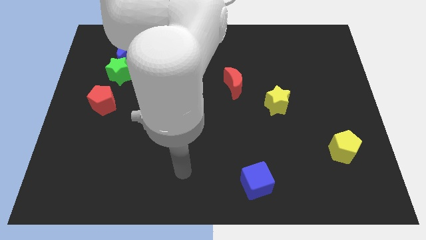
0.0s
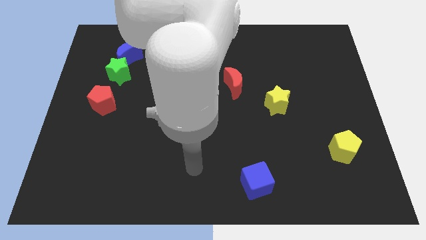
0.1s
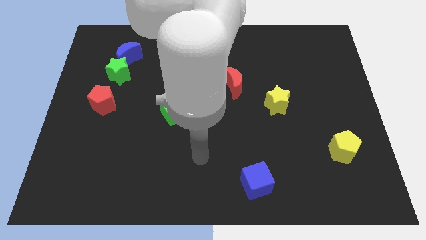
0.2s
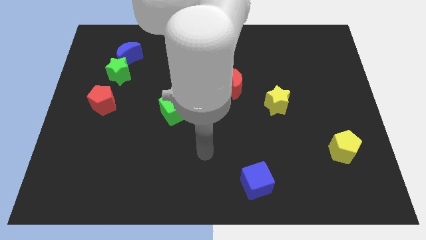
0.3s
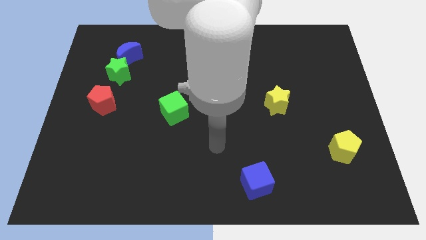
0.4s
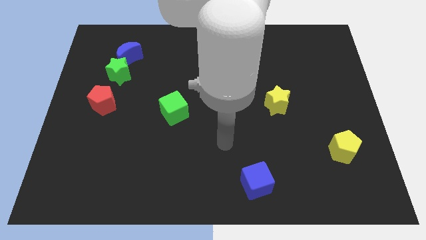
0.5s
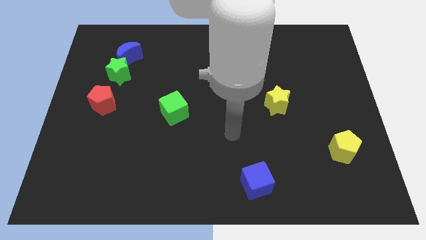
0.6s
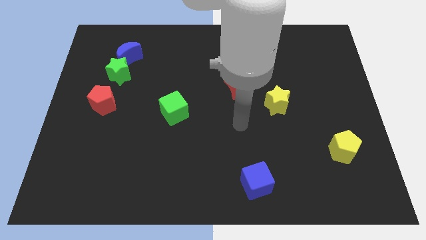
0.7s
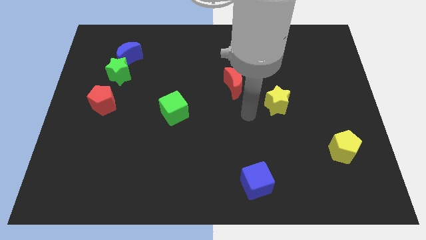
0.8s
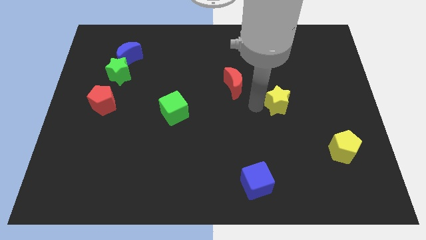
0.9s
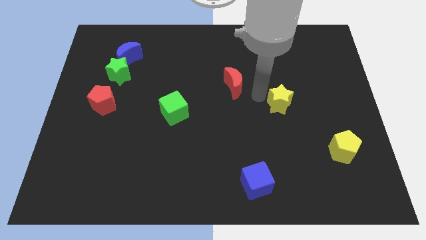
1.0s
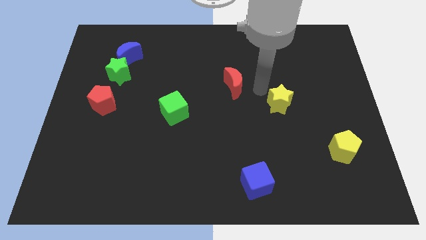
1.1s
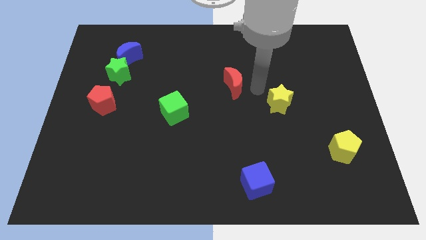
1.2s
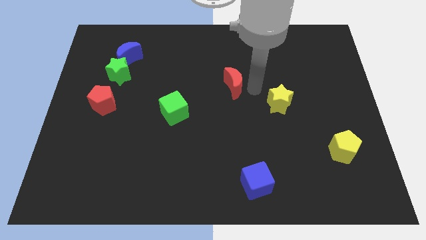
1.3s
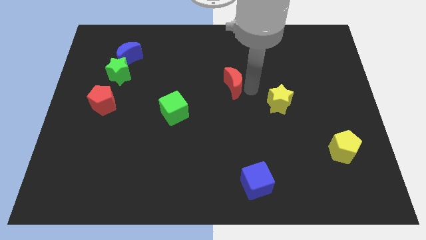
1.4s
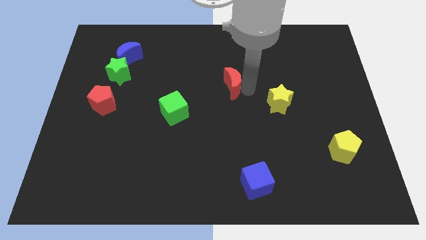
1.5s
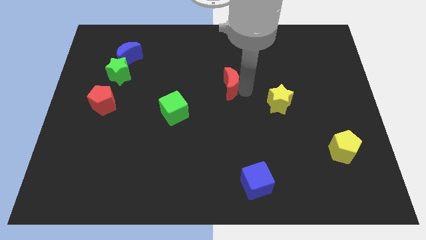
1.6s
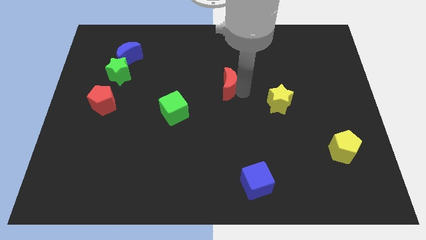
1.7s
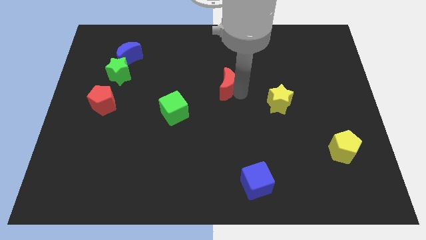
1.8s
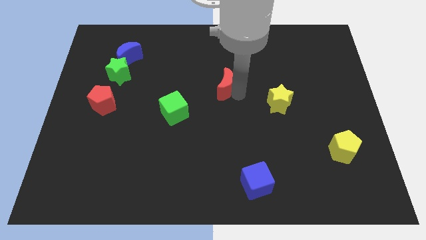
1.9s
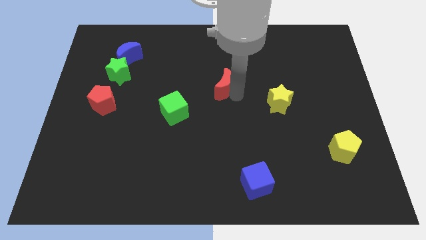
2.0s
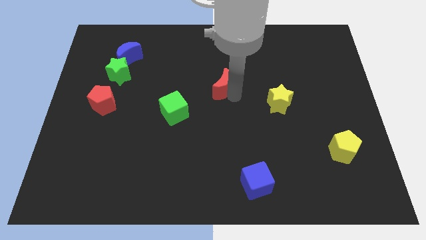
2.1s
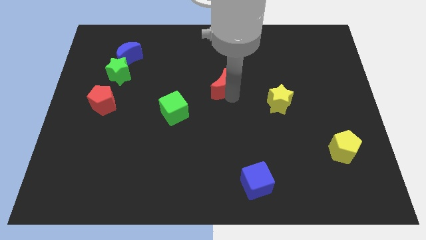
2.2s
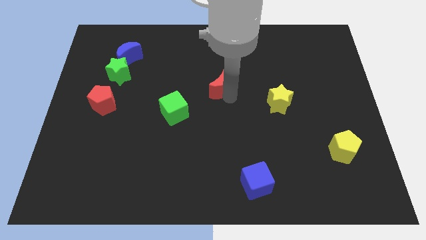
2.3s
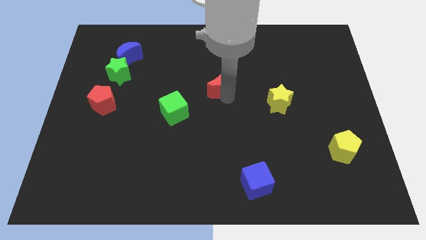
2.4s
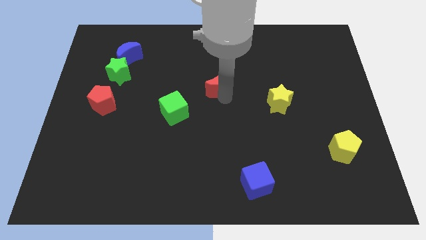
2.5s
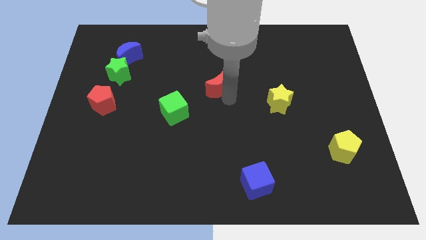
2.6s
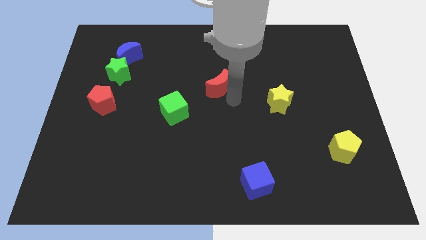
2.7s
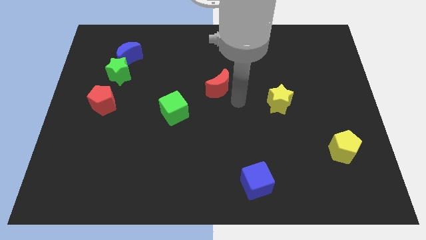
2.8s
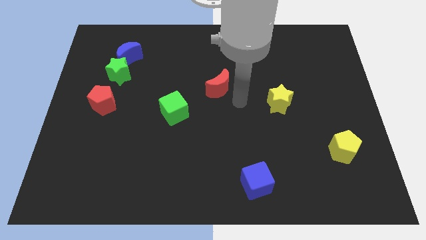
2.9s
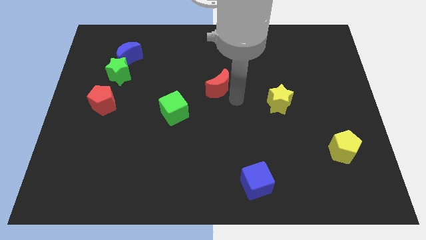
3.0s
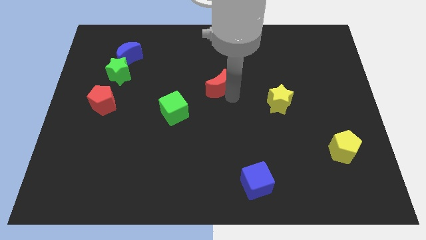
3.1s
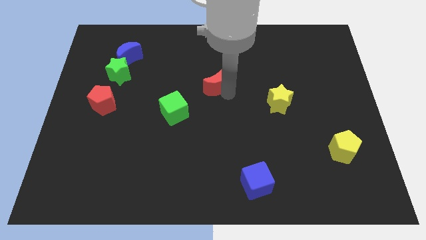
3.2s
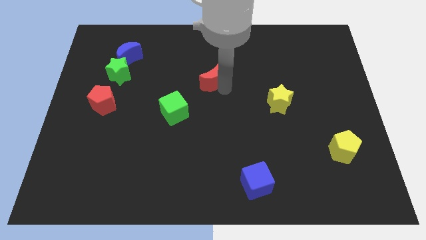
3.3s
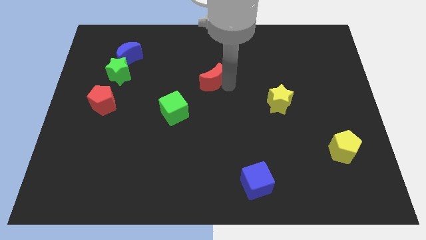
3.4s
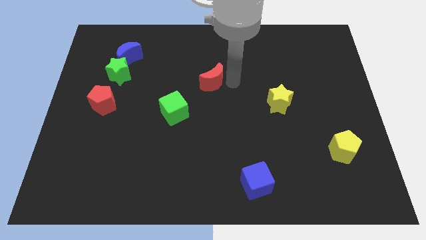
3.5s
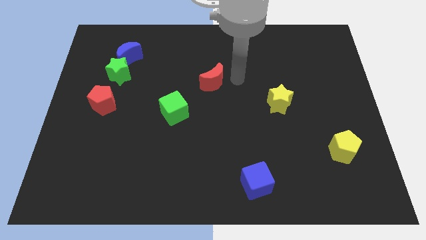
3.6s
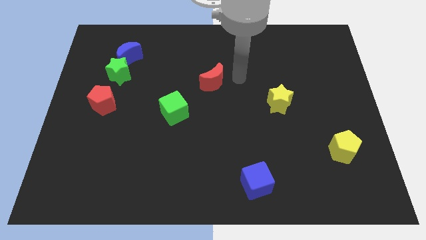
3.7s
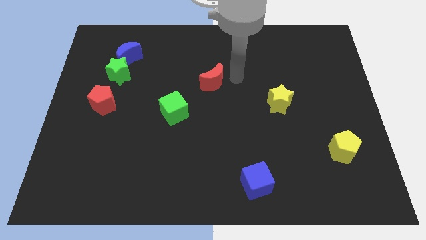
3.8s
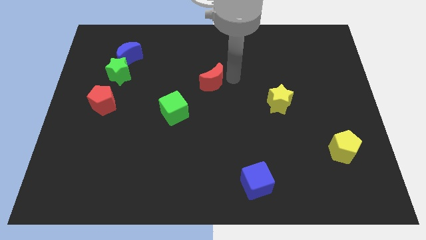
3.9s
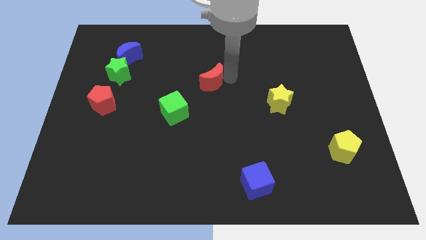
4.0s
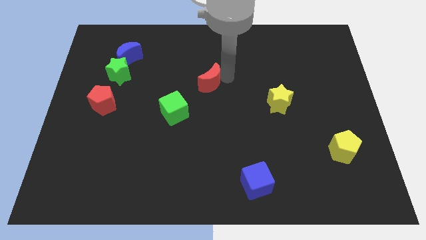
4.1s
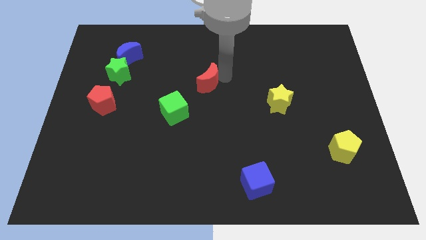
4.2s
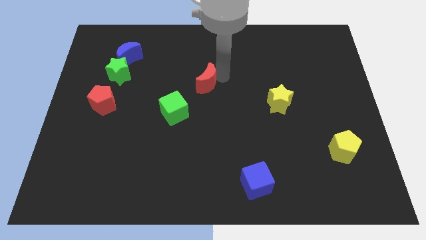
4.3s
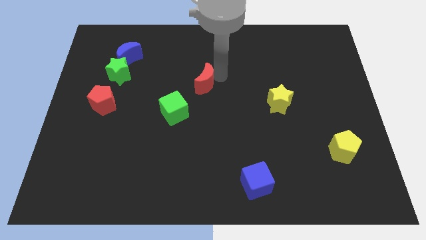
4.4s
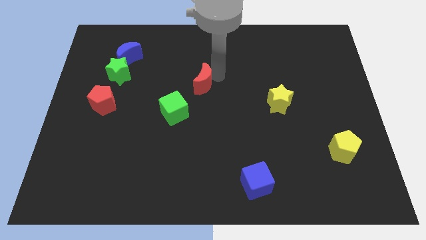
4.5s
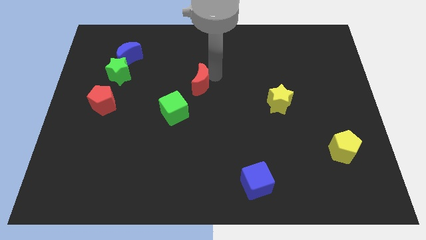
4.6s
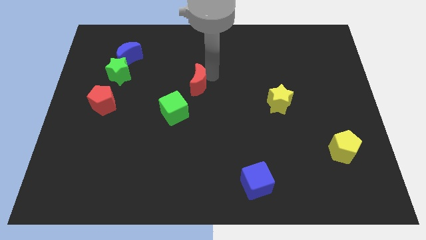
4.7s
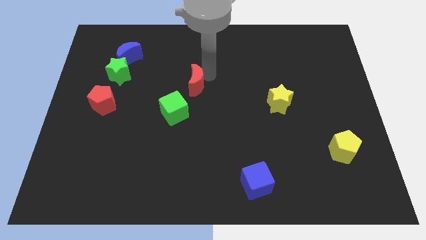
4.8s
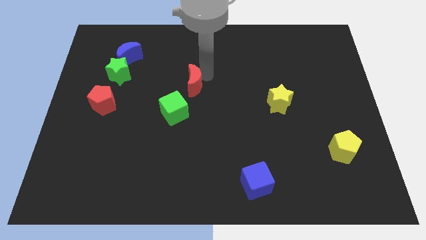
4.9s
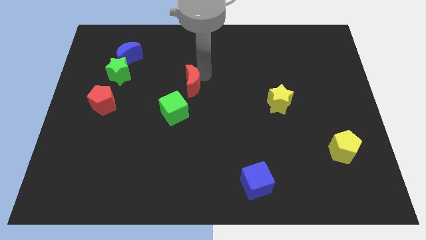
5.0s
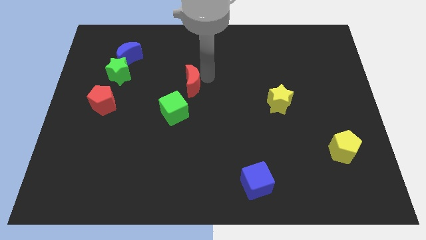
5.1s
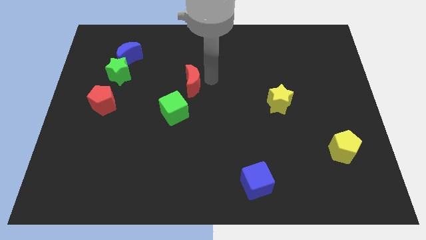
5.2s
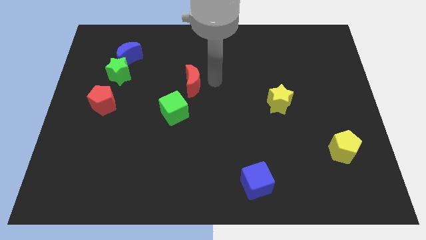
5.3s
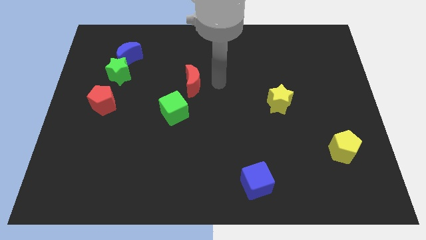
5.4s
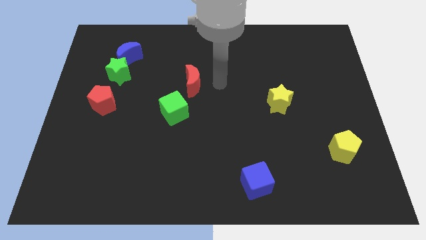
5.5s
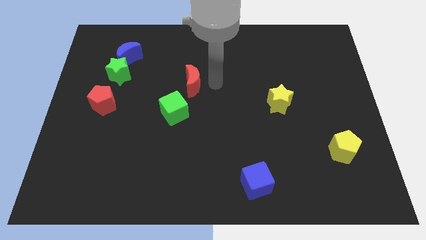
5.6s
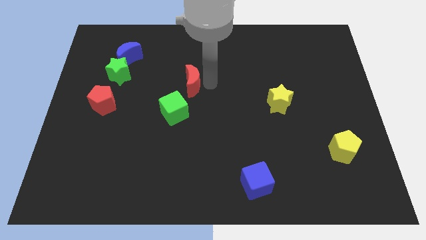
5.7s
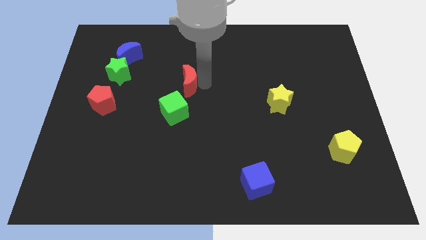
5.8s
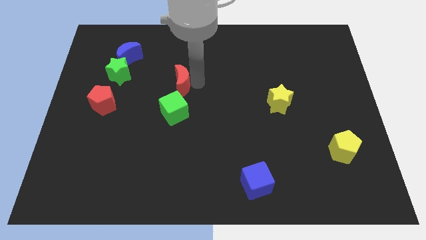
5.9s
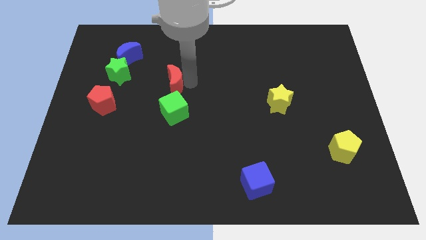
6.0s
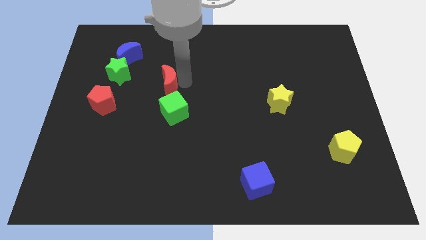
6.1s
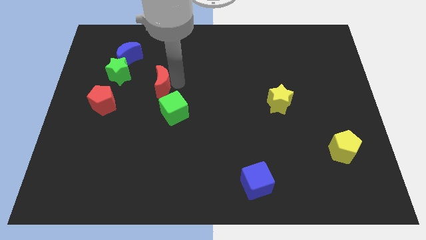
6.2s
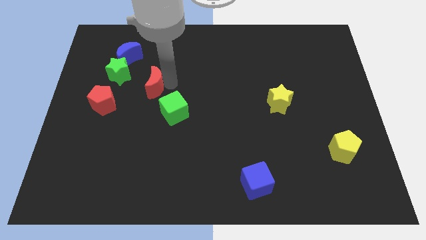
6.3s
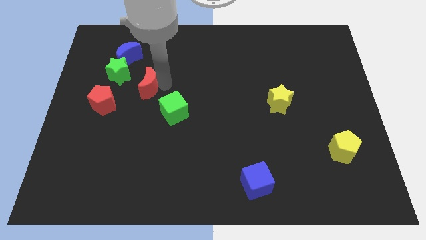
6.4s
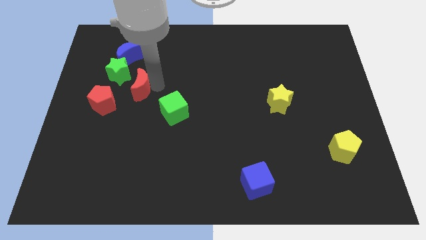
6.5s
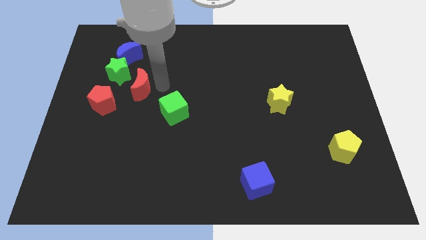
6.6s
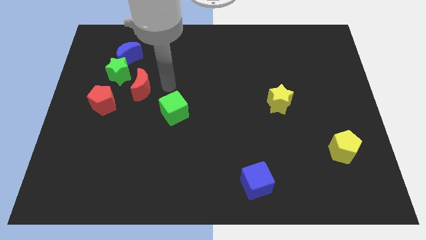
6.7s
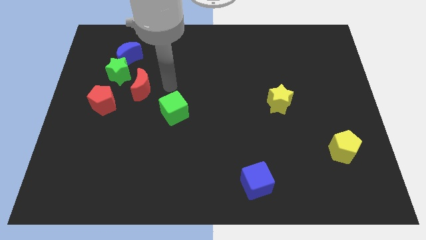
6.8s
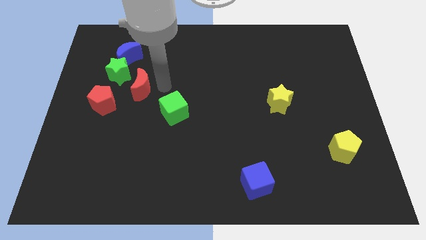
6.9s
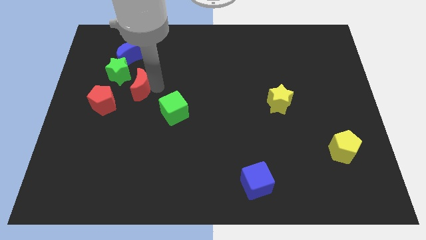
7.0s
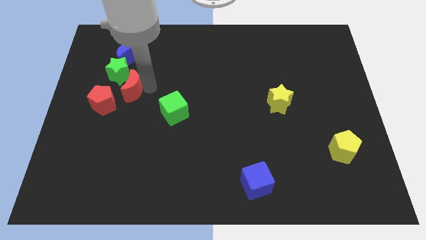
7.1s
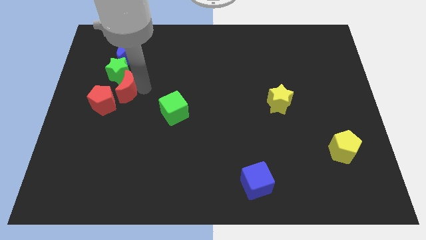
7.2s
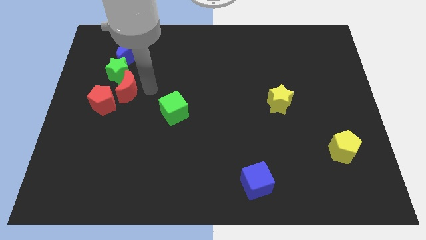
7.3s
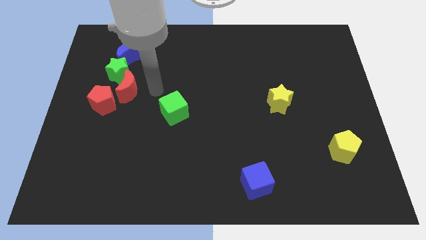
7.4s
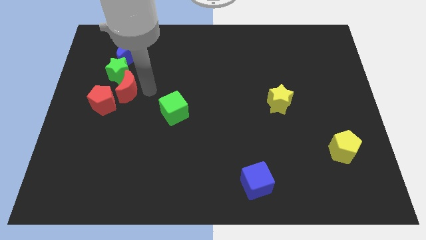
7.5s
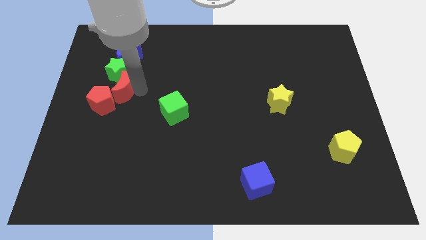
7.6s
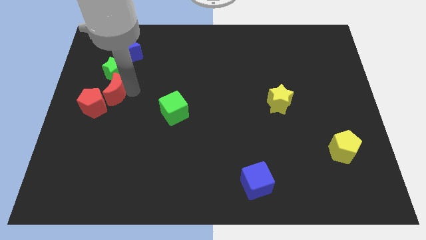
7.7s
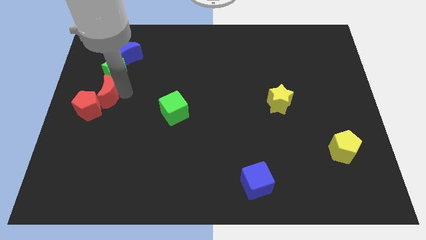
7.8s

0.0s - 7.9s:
slide the red moon to the bottom left side of the green star
